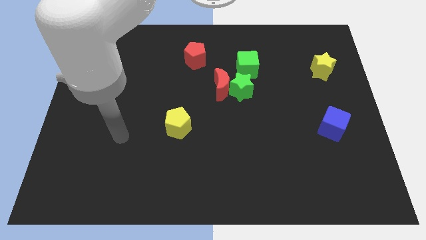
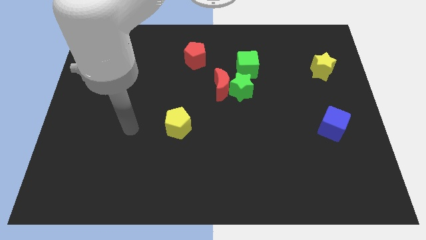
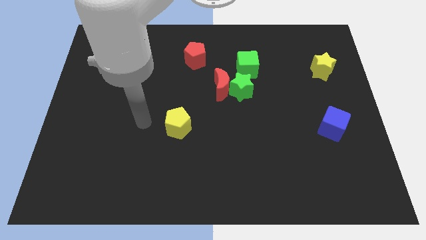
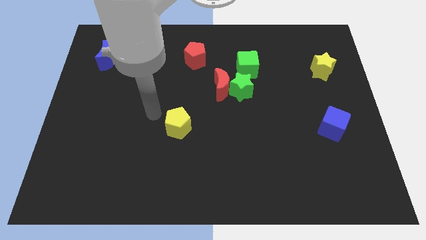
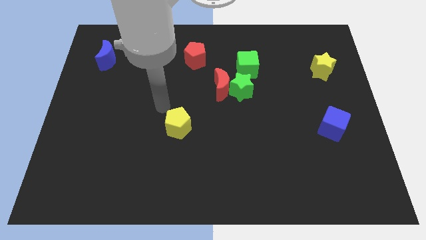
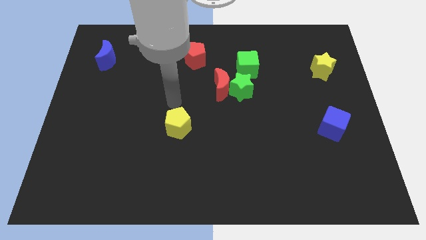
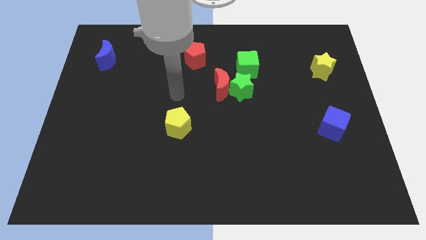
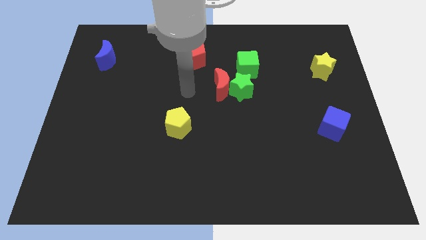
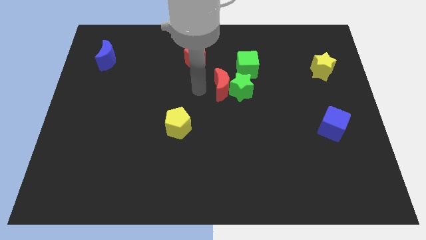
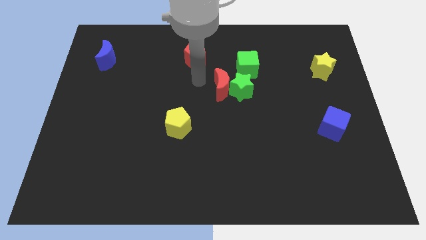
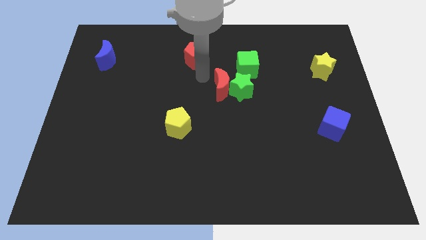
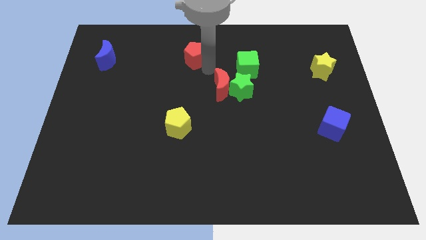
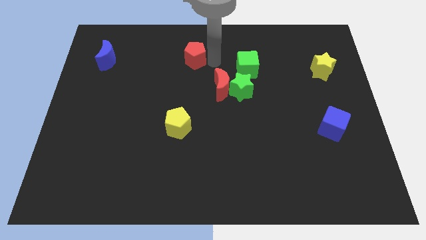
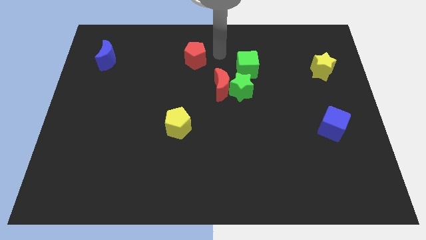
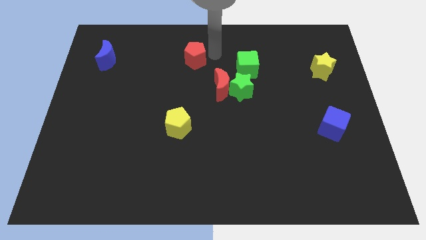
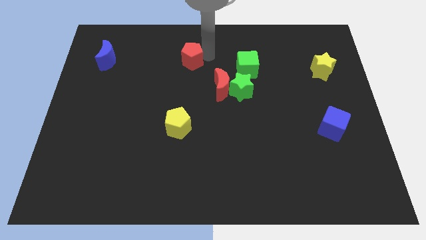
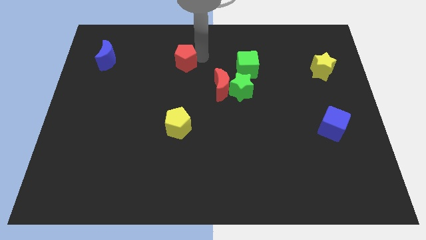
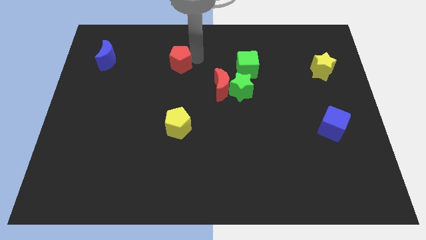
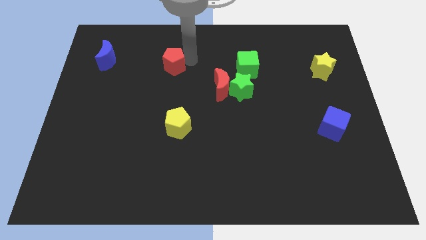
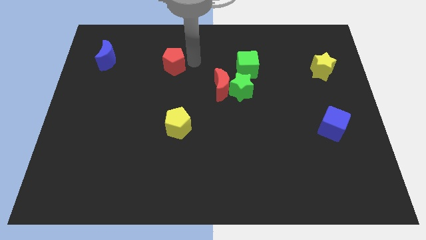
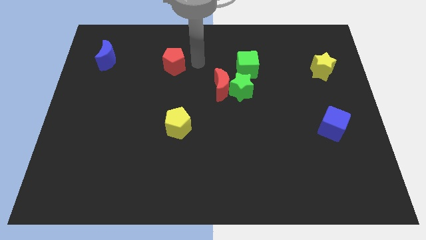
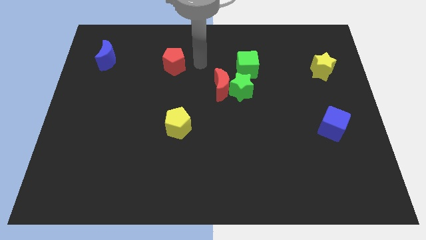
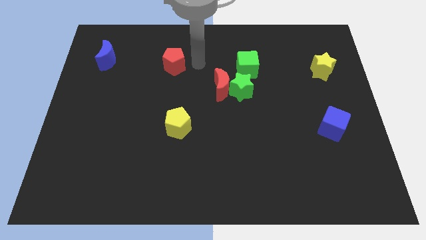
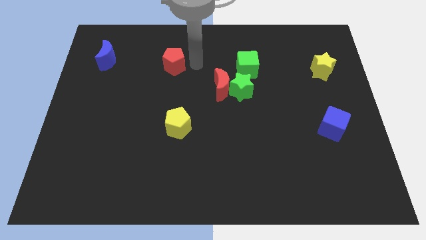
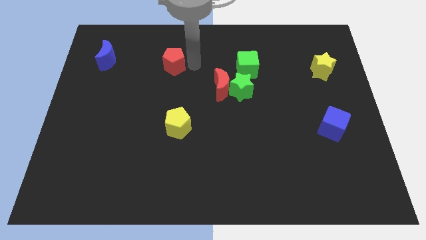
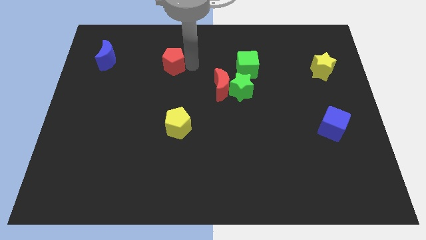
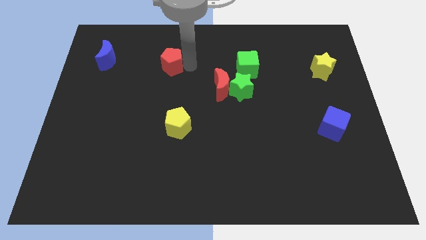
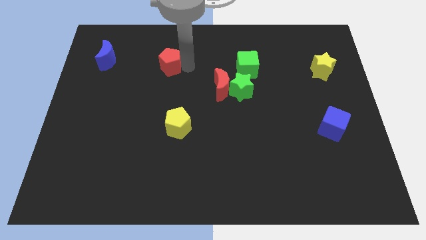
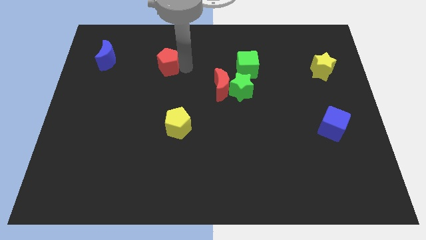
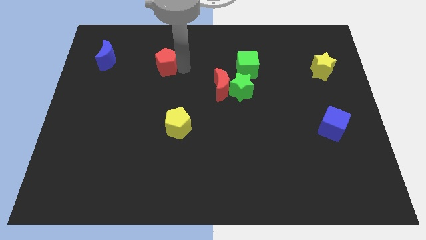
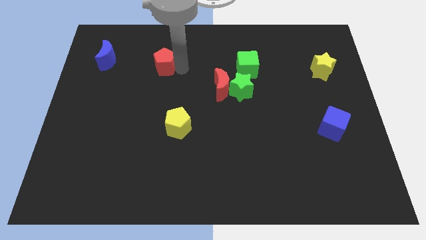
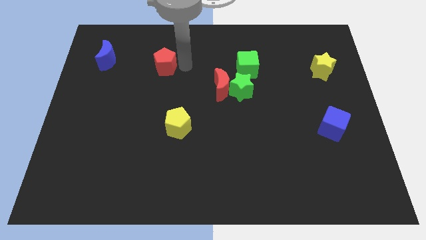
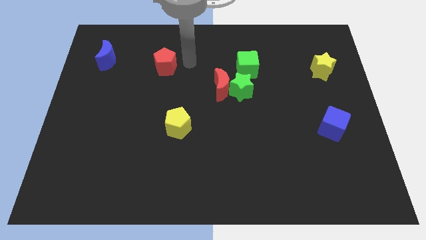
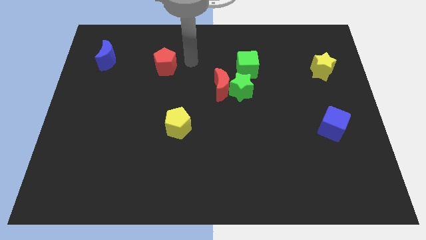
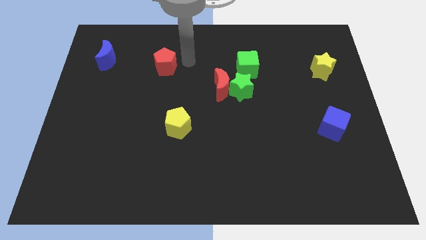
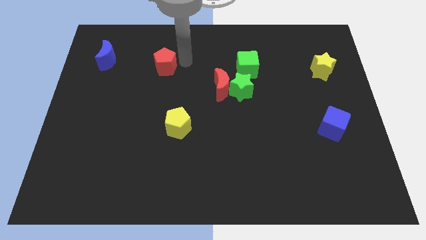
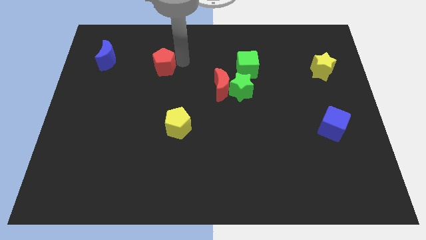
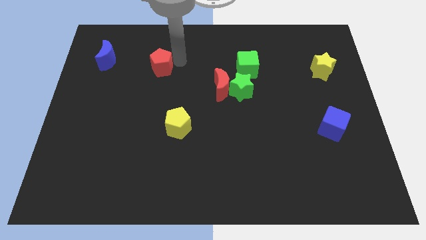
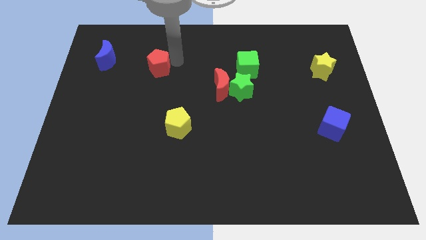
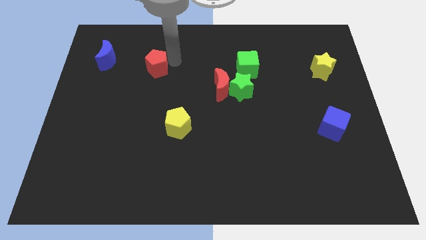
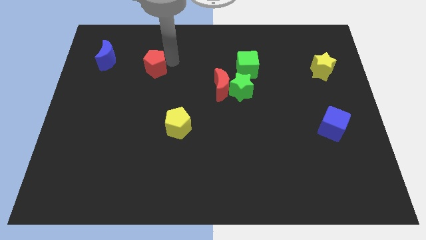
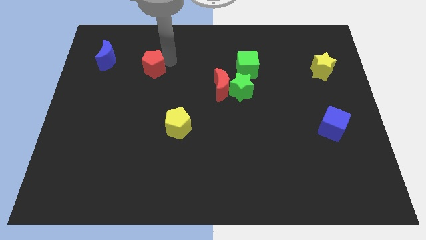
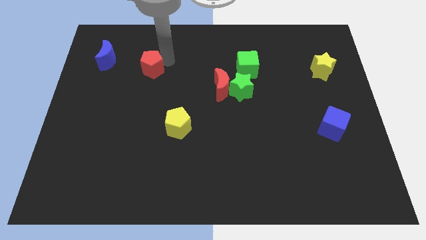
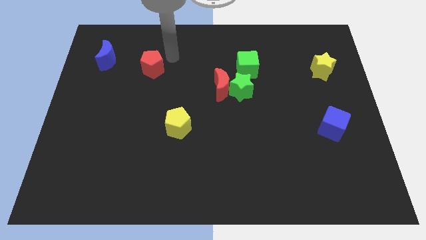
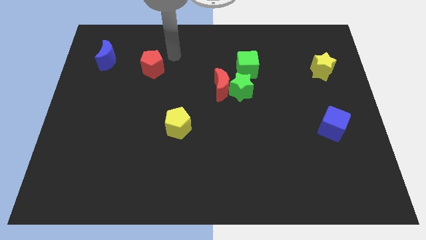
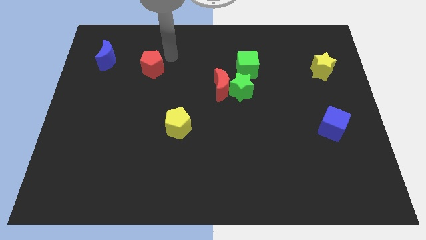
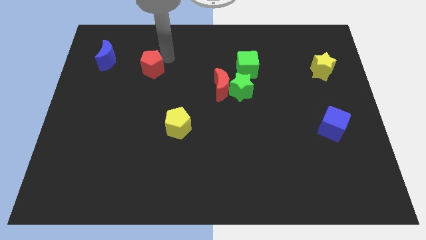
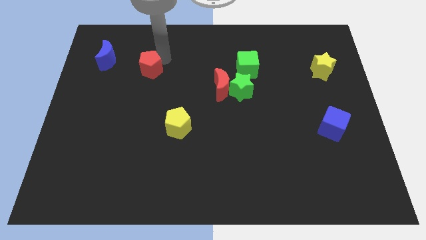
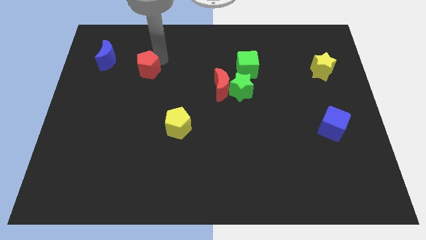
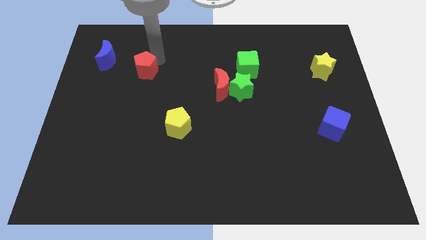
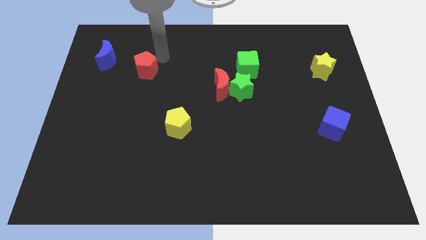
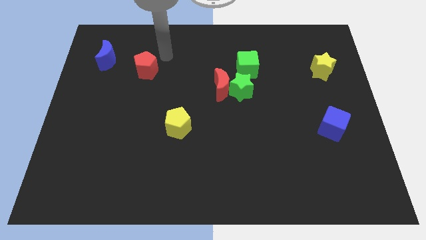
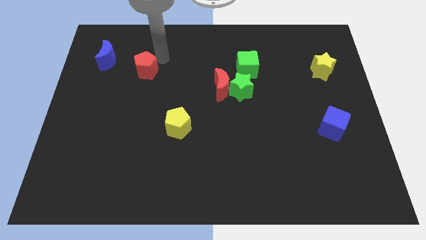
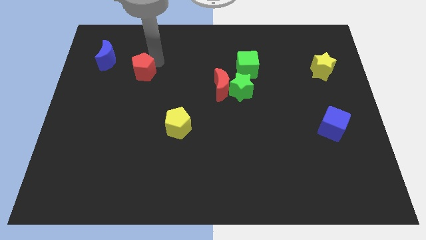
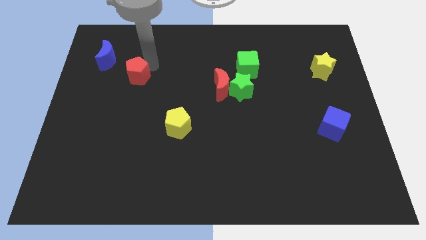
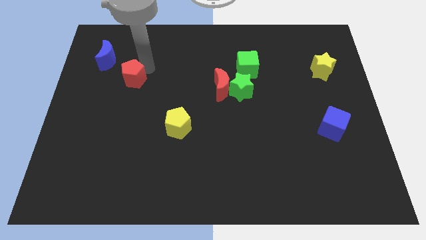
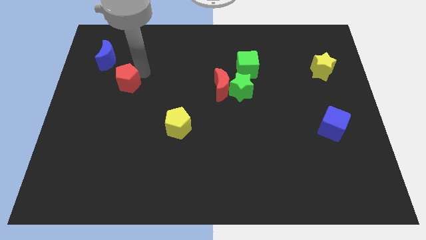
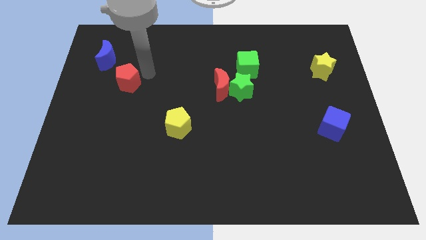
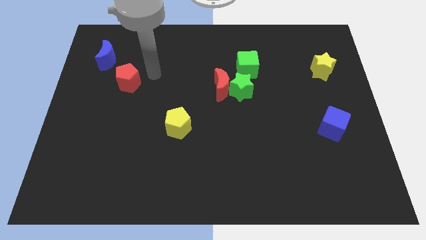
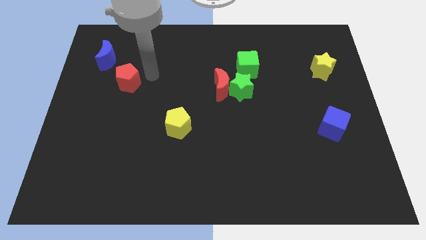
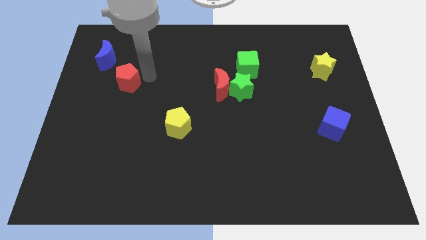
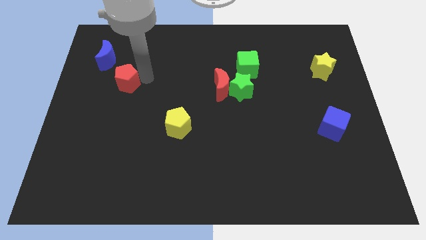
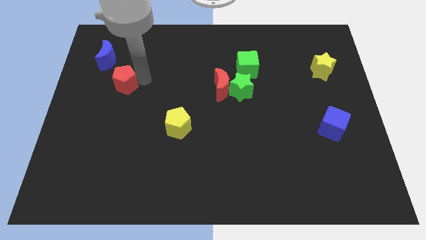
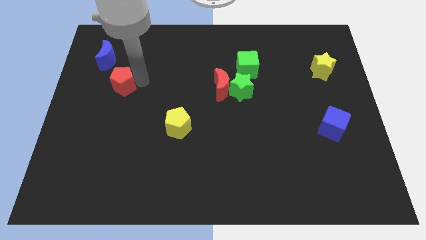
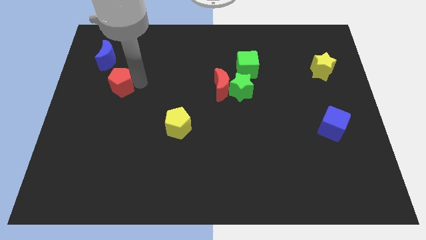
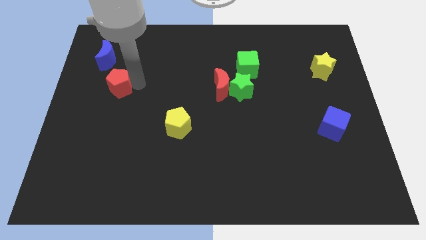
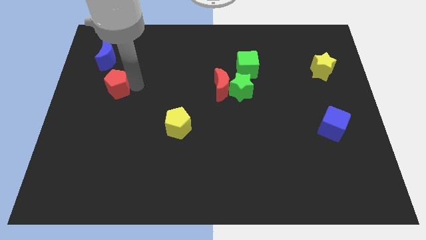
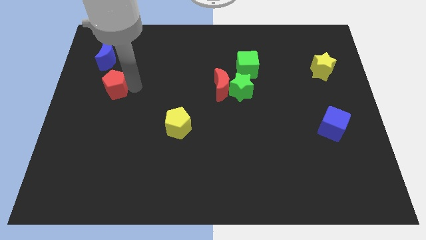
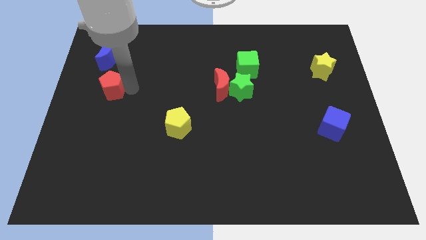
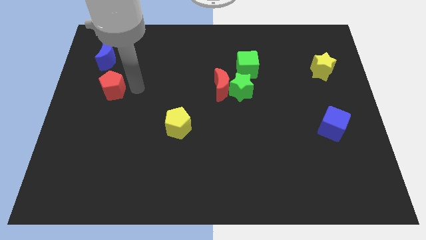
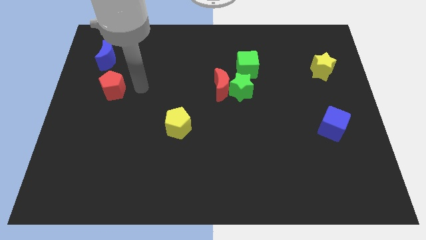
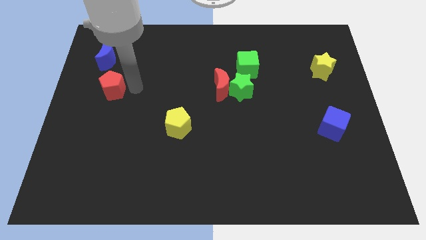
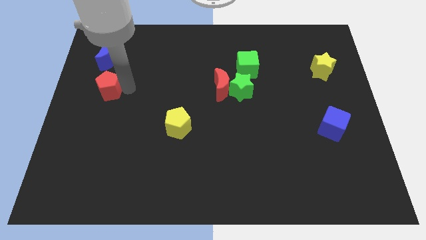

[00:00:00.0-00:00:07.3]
put the red pentagon to the center left
